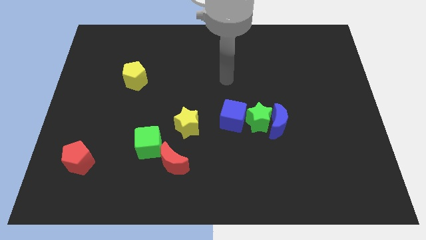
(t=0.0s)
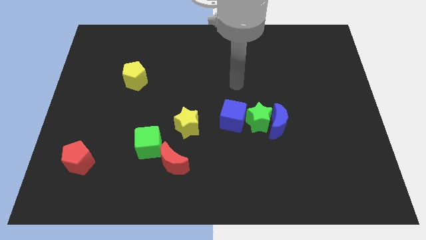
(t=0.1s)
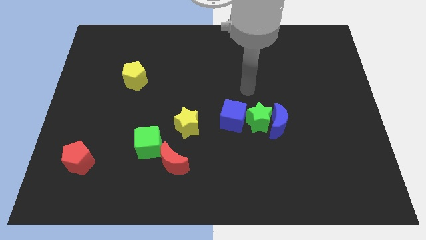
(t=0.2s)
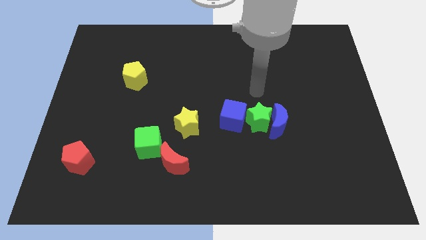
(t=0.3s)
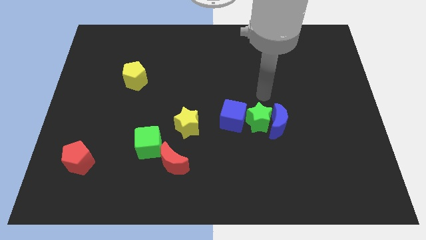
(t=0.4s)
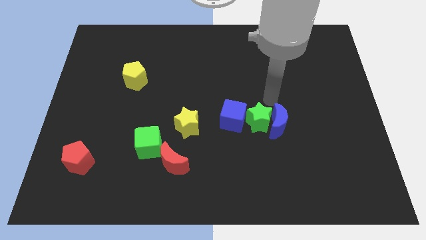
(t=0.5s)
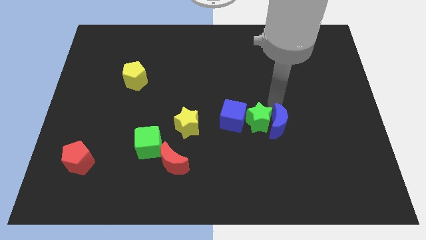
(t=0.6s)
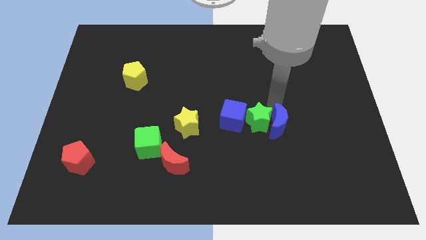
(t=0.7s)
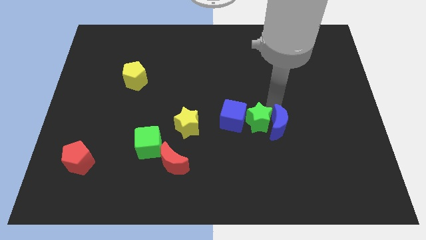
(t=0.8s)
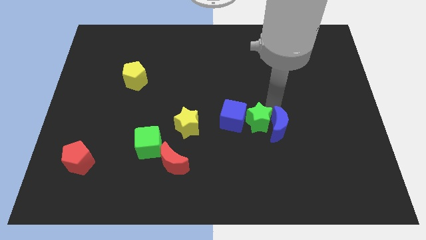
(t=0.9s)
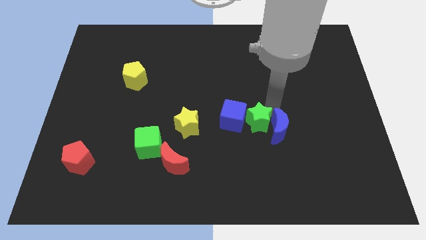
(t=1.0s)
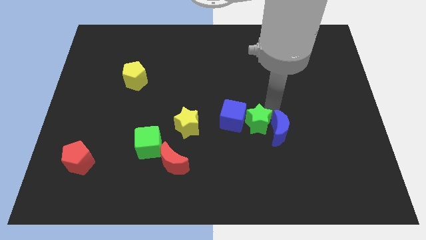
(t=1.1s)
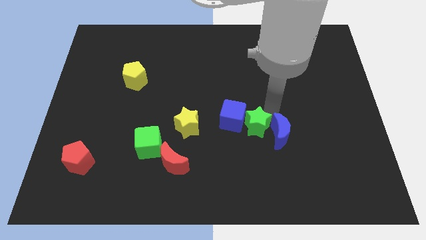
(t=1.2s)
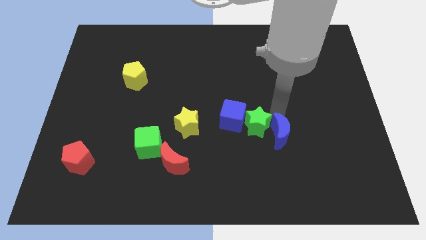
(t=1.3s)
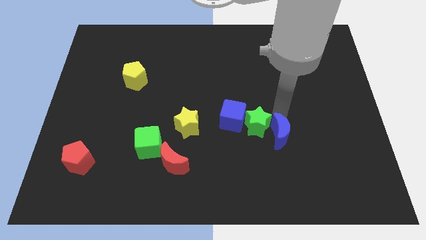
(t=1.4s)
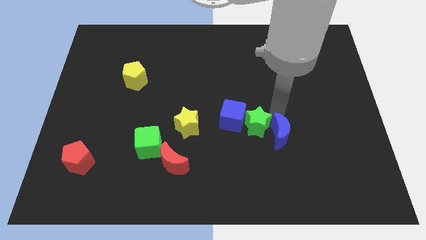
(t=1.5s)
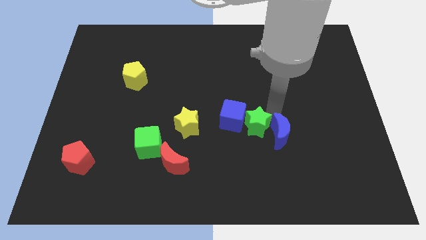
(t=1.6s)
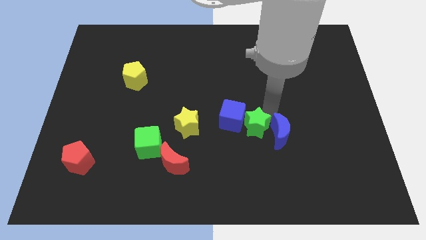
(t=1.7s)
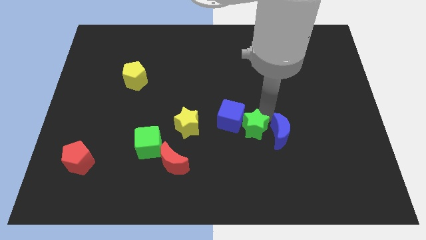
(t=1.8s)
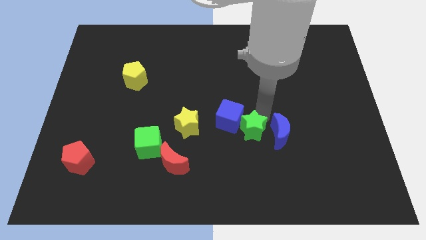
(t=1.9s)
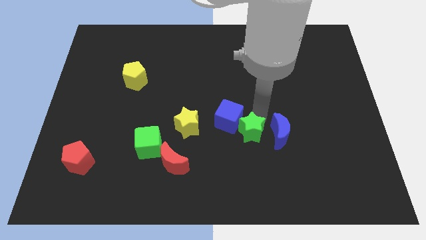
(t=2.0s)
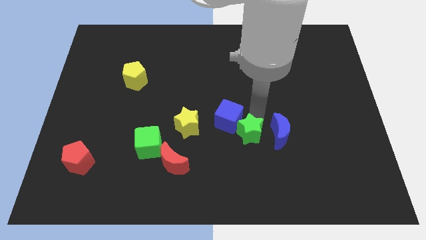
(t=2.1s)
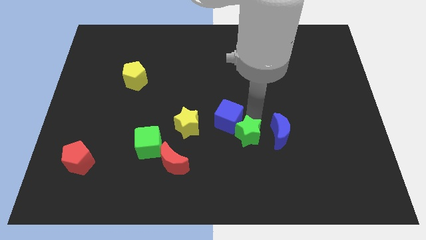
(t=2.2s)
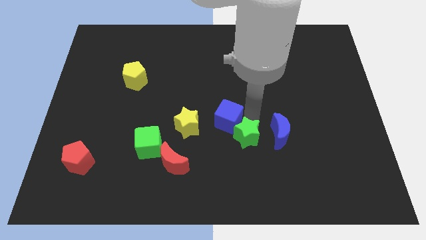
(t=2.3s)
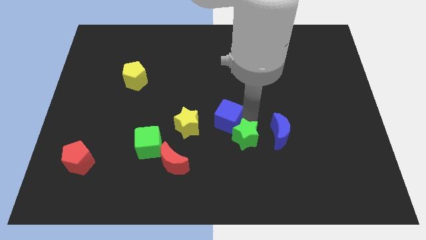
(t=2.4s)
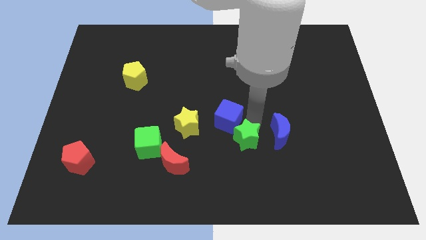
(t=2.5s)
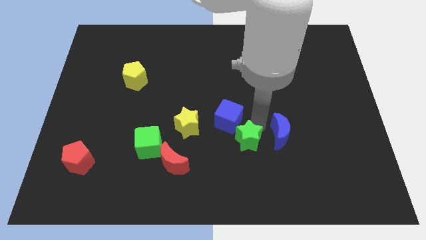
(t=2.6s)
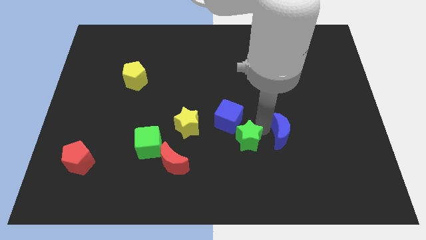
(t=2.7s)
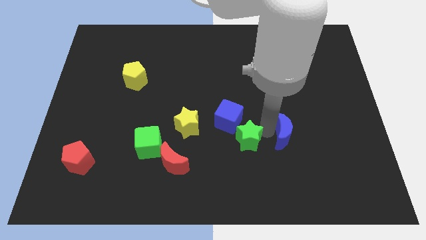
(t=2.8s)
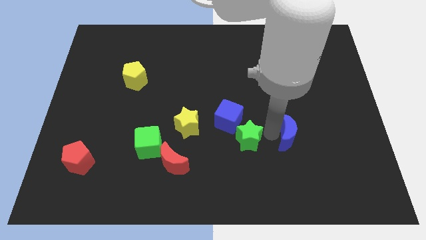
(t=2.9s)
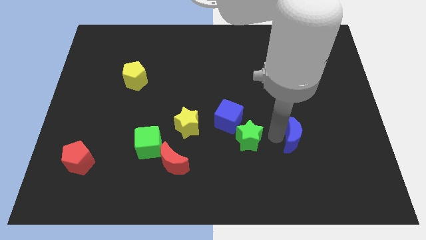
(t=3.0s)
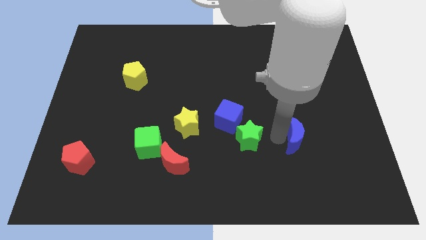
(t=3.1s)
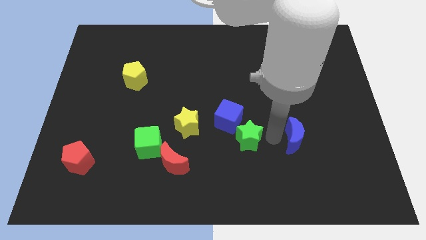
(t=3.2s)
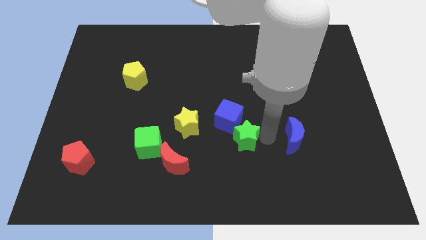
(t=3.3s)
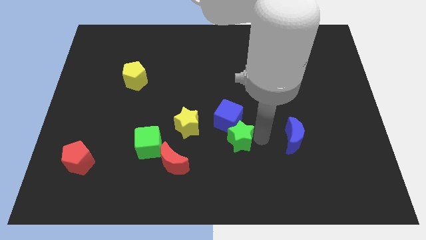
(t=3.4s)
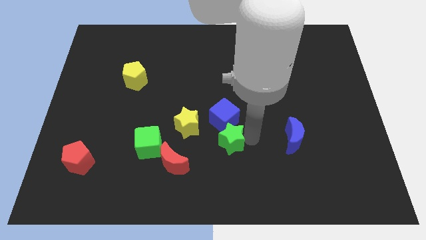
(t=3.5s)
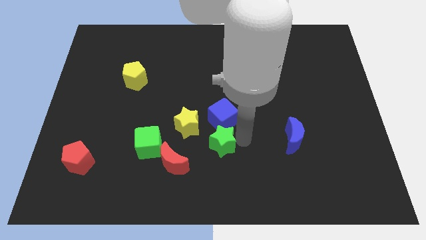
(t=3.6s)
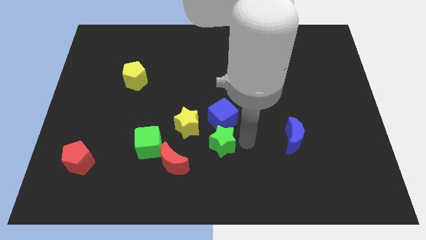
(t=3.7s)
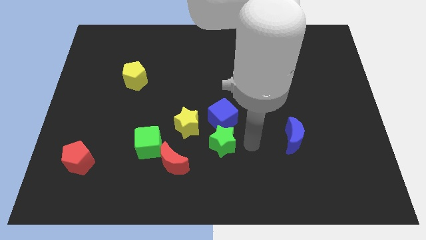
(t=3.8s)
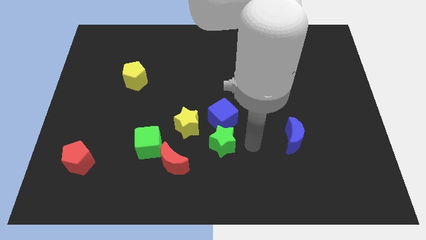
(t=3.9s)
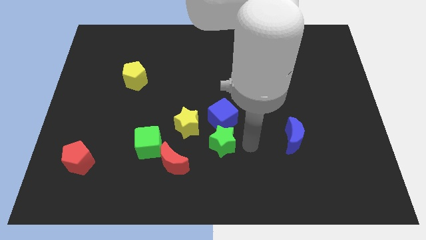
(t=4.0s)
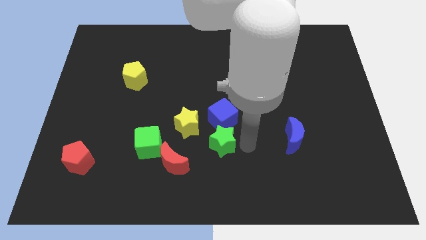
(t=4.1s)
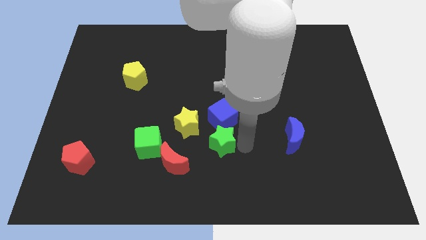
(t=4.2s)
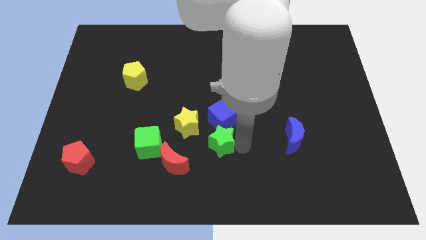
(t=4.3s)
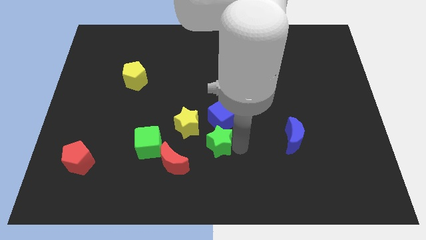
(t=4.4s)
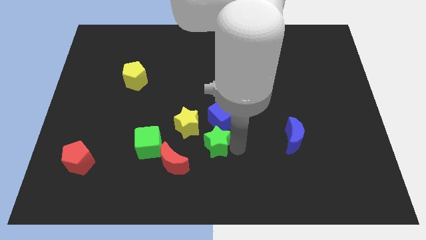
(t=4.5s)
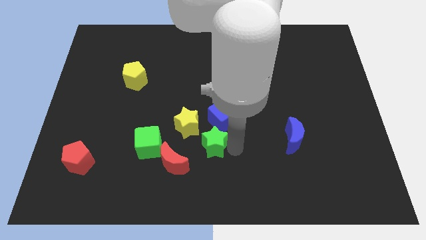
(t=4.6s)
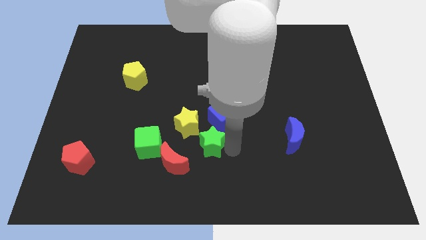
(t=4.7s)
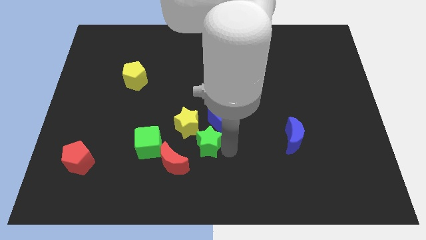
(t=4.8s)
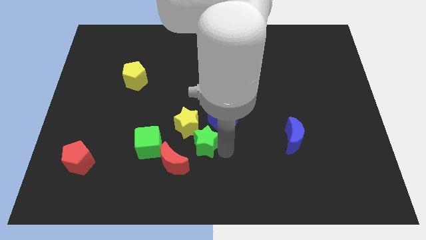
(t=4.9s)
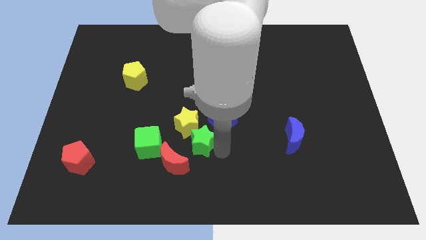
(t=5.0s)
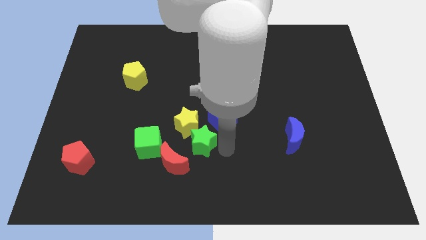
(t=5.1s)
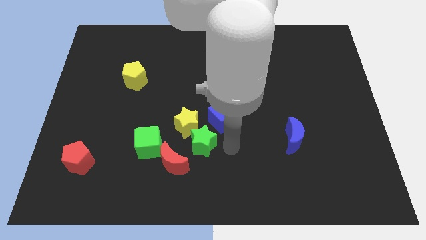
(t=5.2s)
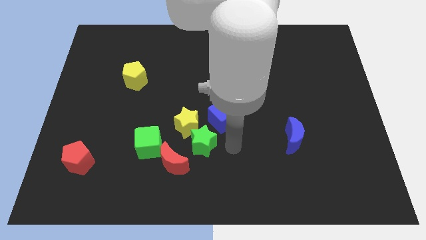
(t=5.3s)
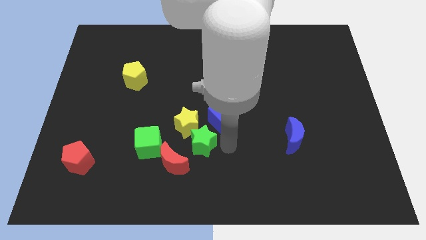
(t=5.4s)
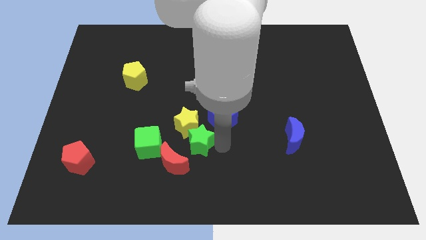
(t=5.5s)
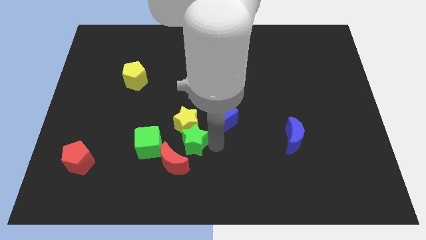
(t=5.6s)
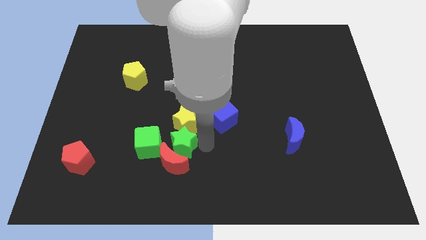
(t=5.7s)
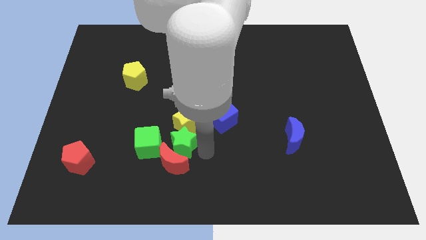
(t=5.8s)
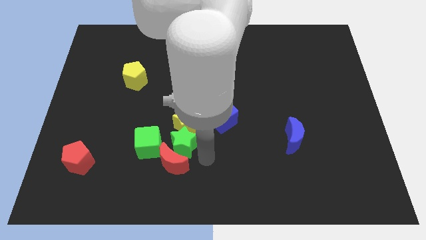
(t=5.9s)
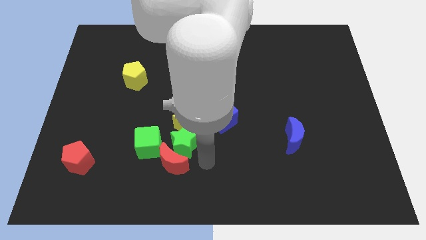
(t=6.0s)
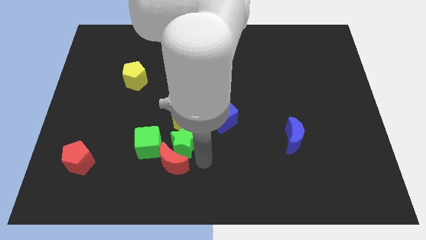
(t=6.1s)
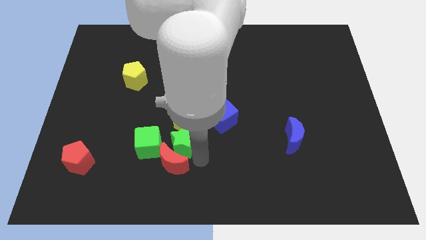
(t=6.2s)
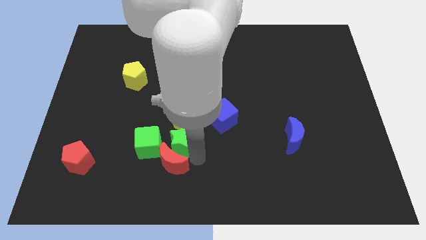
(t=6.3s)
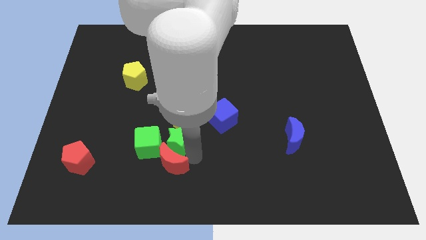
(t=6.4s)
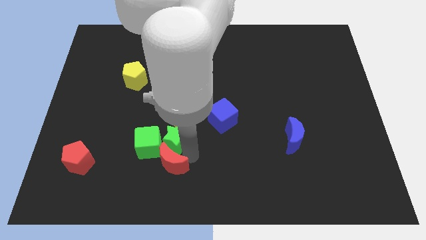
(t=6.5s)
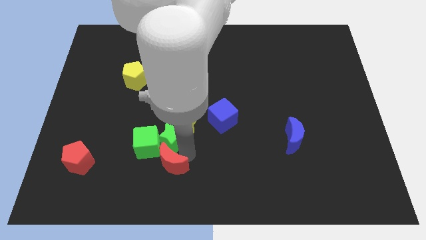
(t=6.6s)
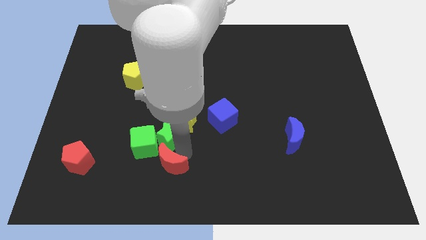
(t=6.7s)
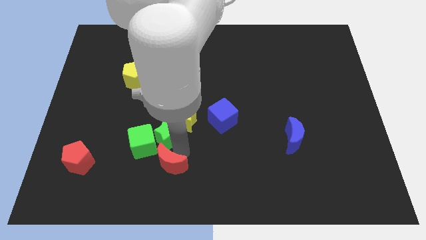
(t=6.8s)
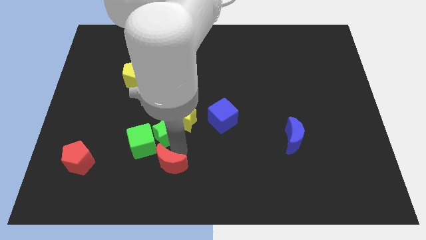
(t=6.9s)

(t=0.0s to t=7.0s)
slide the green star left

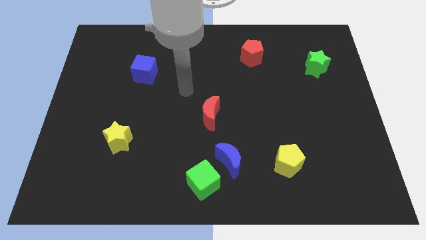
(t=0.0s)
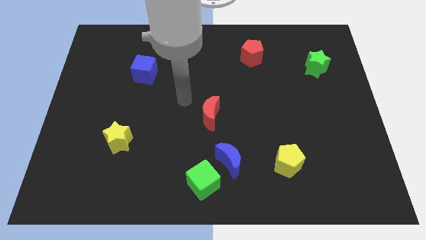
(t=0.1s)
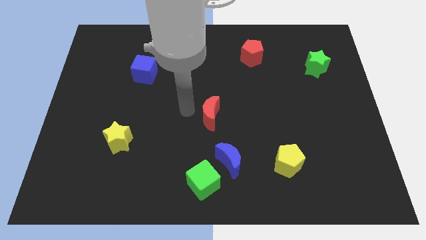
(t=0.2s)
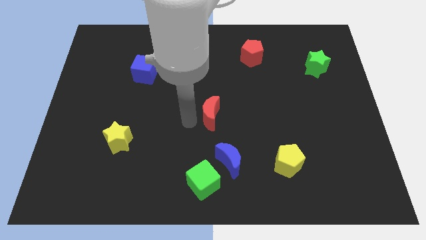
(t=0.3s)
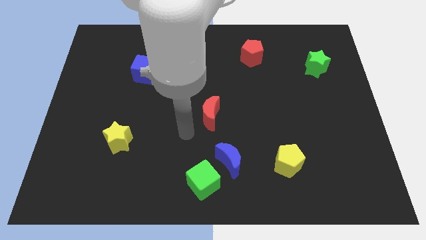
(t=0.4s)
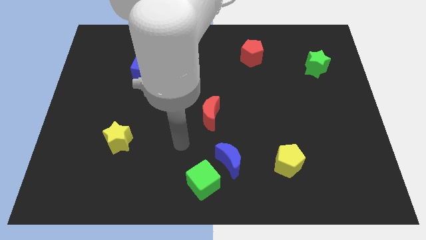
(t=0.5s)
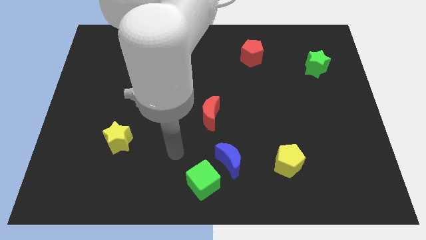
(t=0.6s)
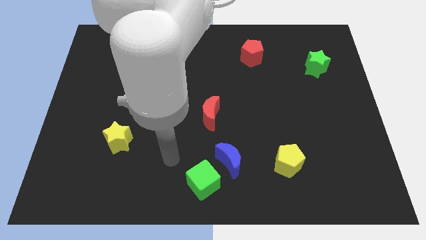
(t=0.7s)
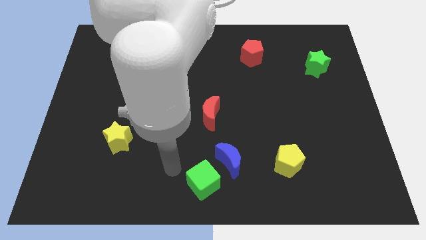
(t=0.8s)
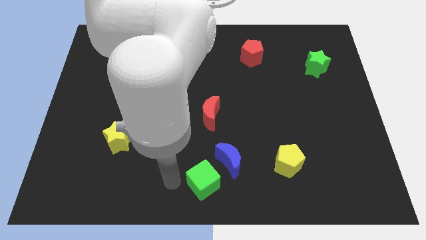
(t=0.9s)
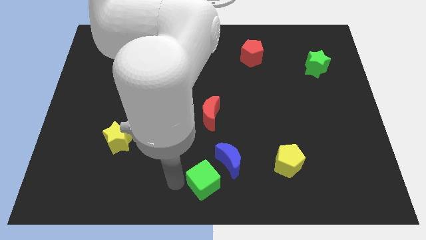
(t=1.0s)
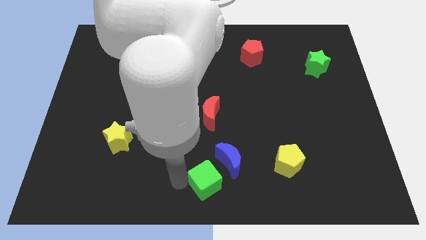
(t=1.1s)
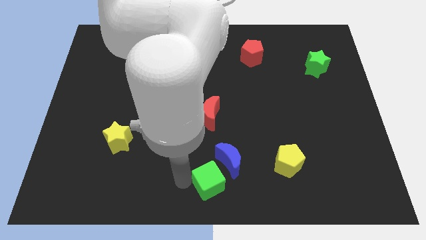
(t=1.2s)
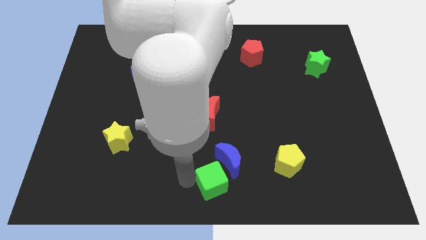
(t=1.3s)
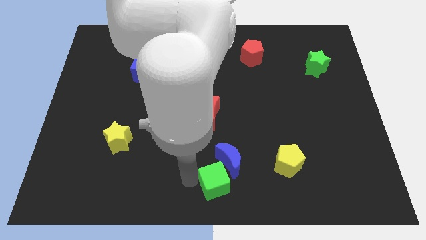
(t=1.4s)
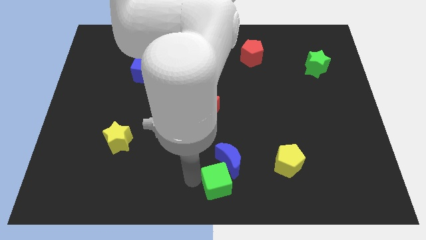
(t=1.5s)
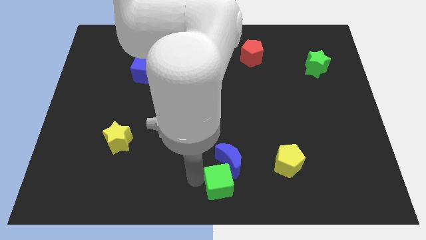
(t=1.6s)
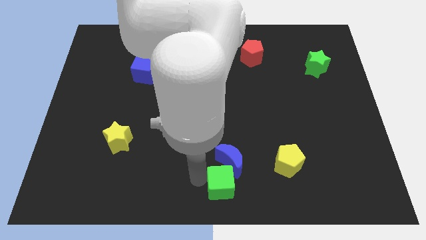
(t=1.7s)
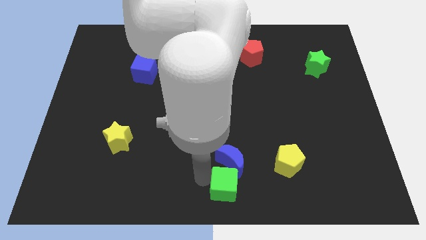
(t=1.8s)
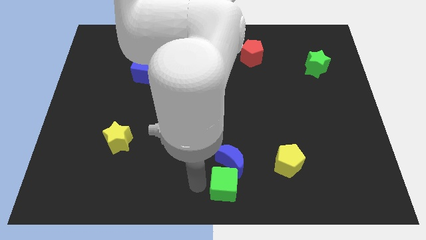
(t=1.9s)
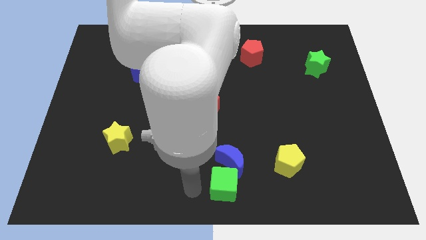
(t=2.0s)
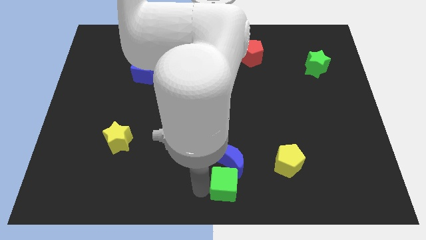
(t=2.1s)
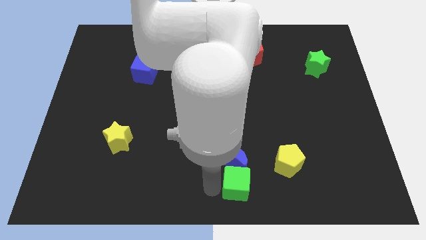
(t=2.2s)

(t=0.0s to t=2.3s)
push the green cube to the right slightly
